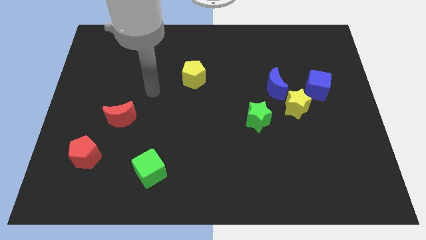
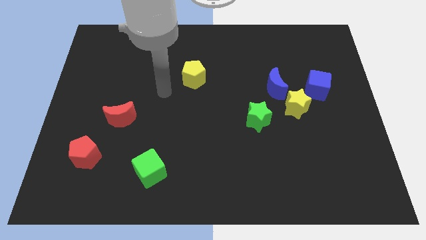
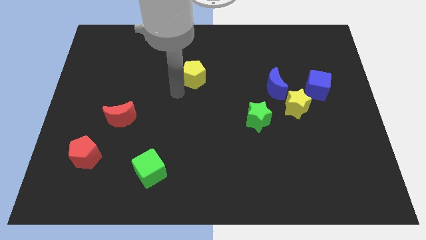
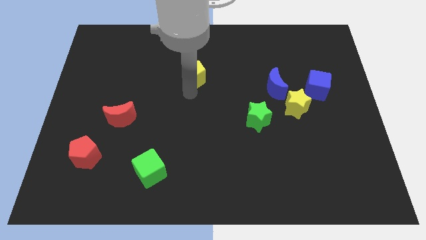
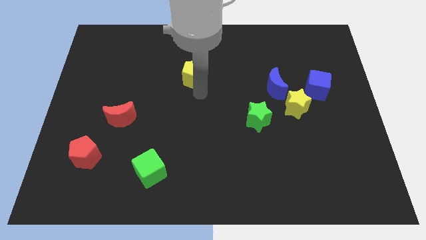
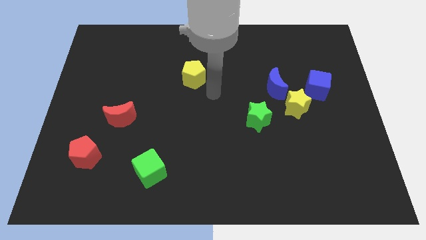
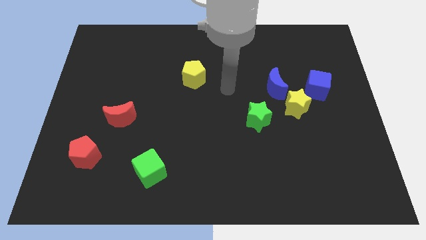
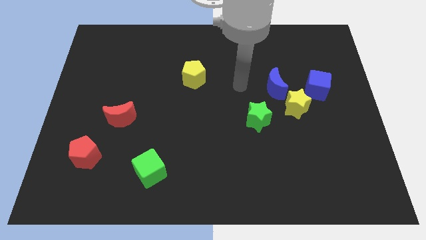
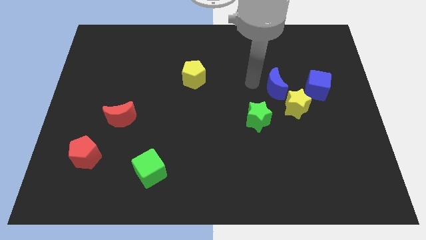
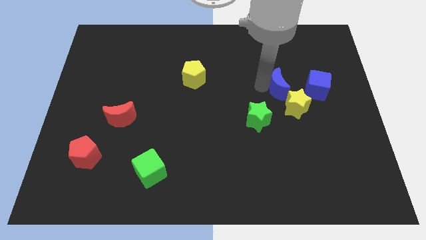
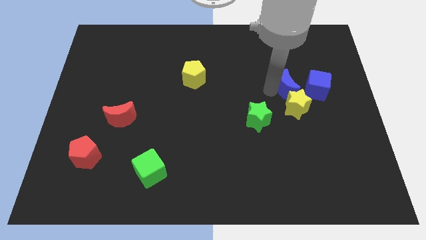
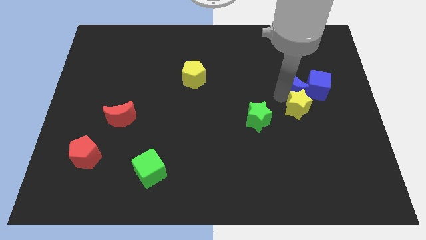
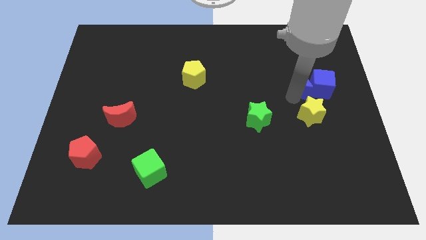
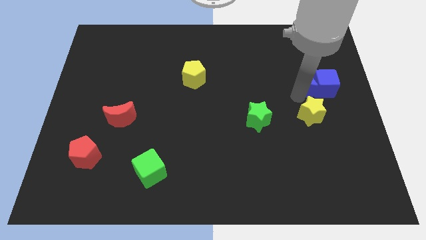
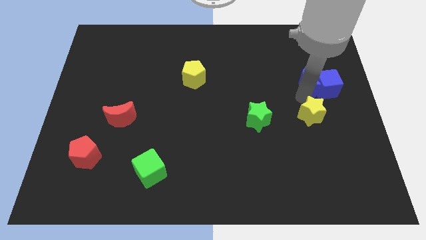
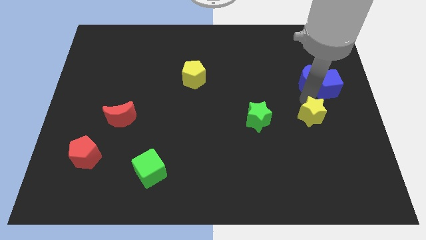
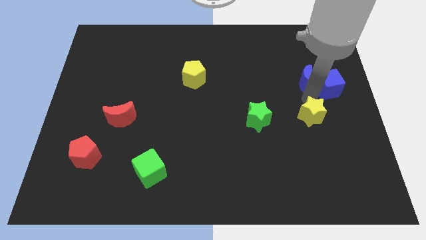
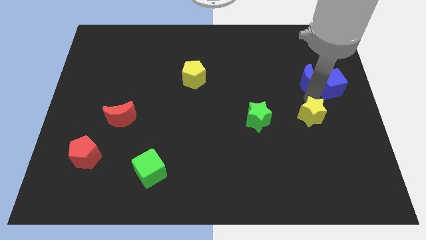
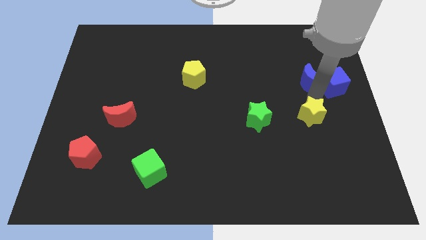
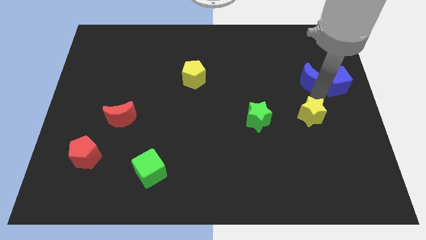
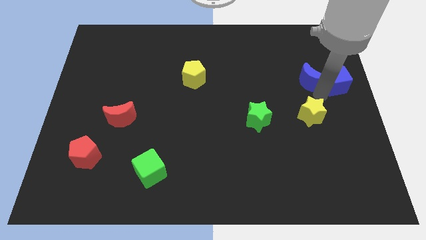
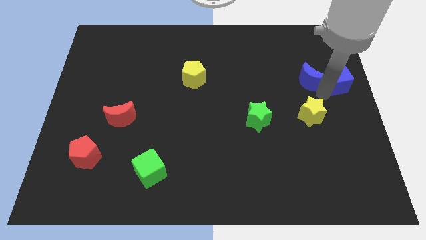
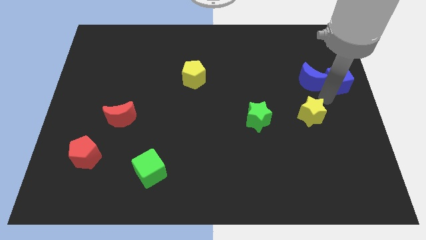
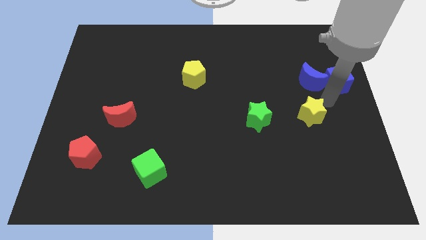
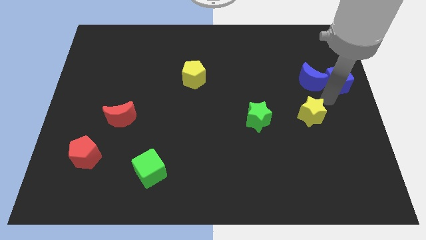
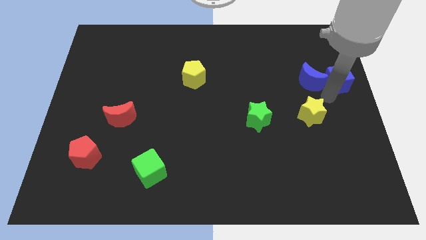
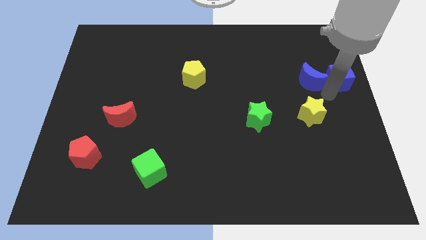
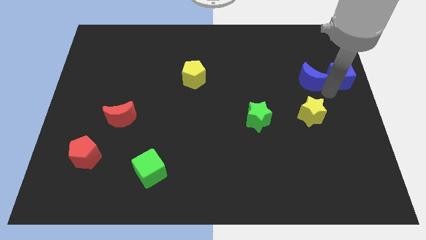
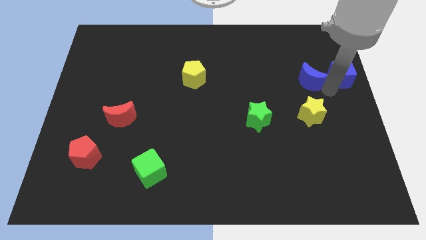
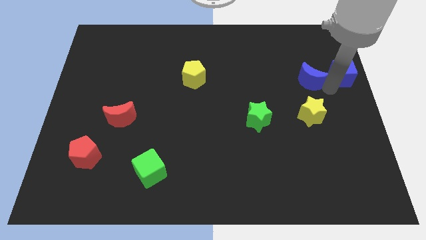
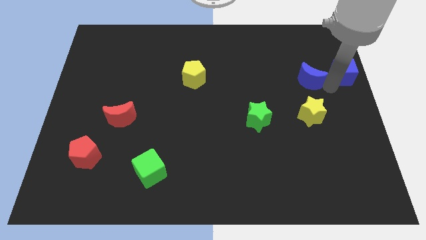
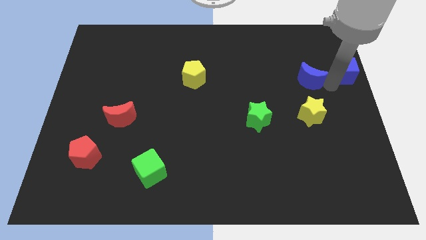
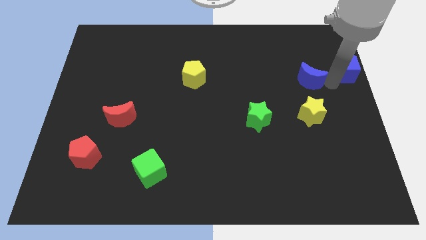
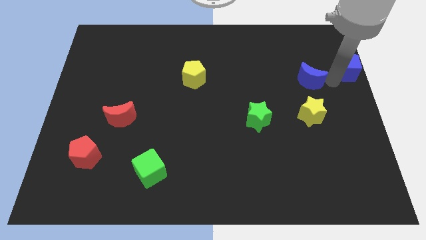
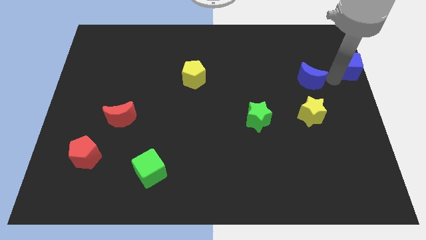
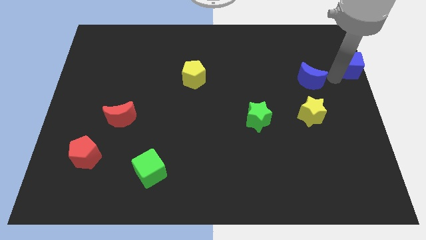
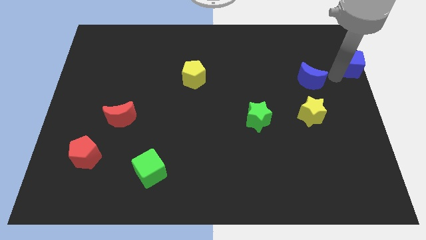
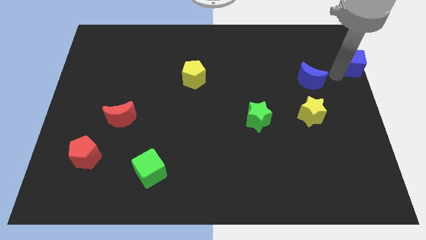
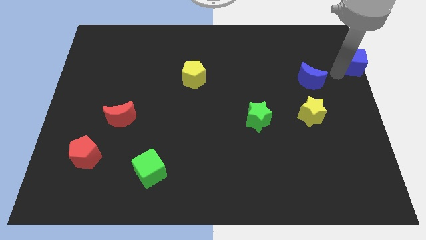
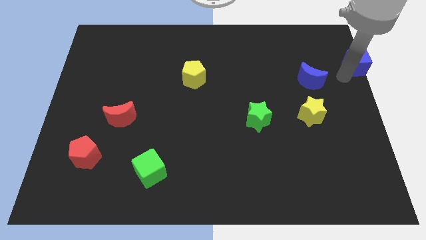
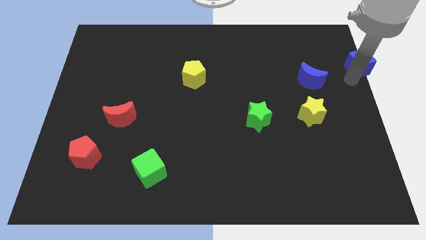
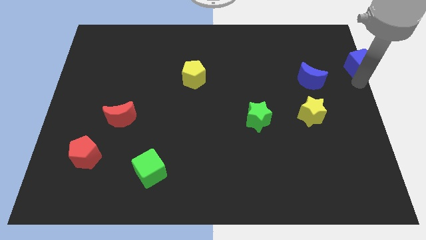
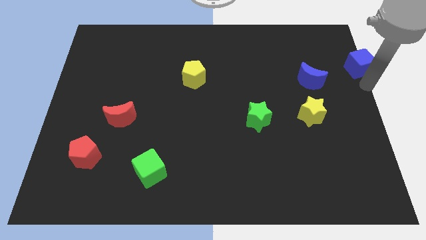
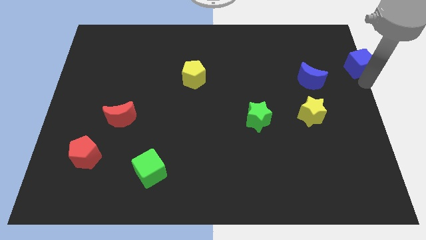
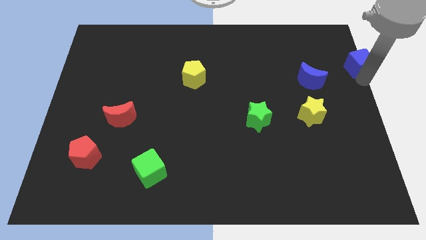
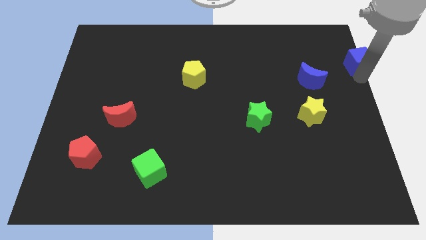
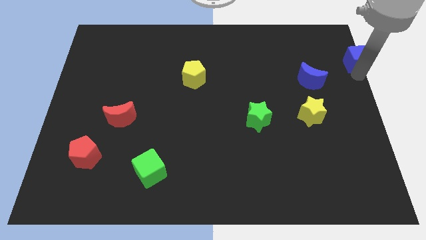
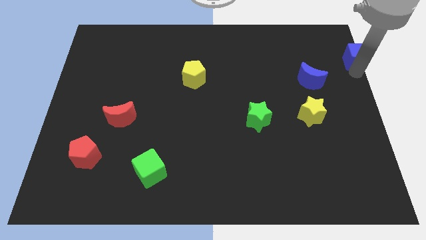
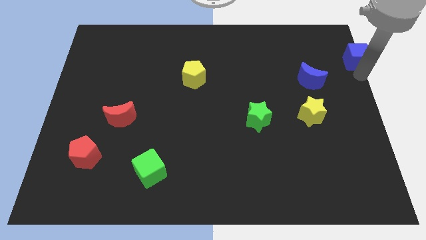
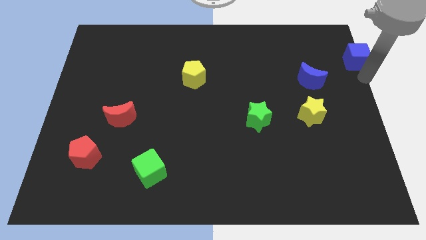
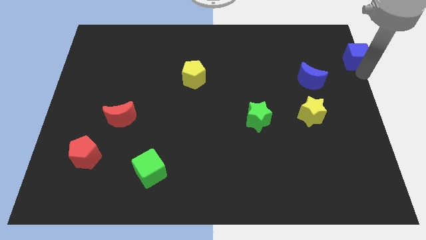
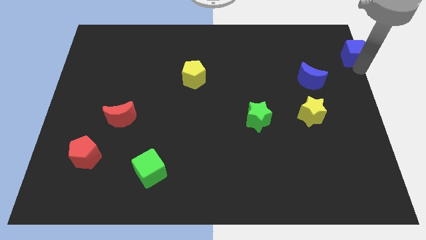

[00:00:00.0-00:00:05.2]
slide the blue cube to the top right of the board

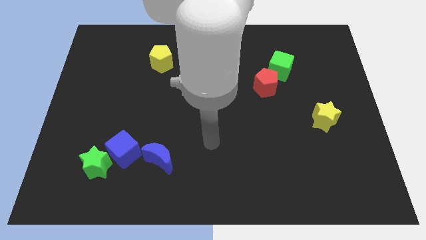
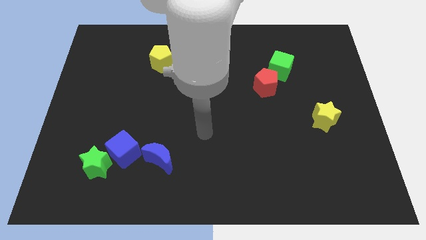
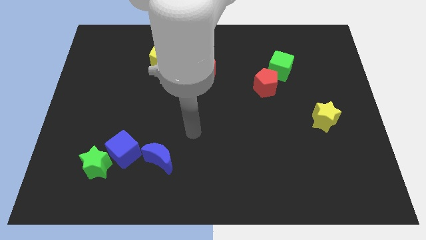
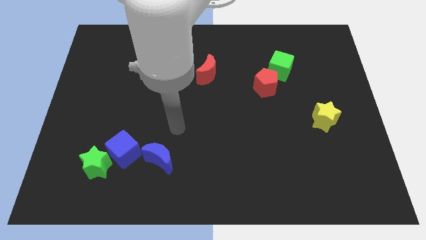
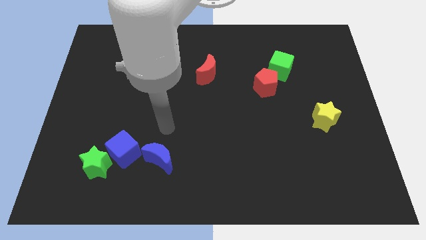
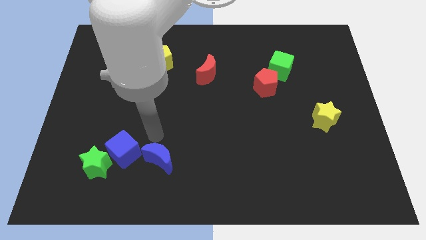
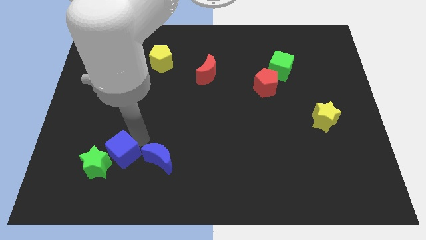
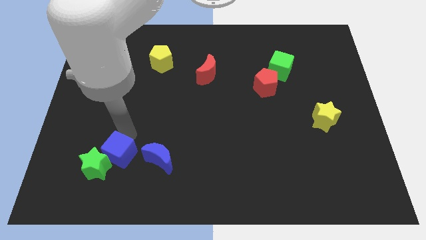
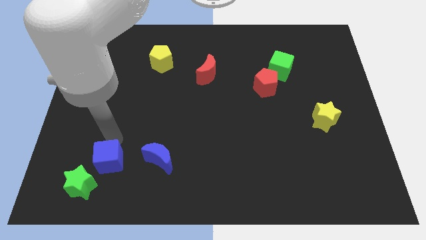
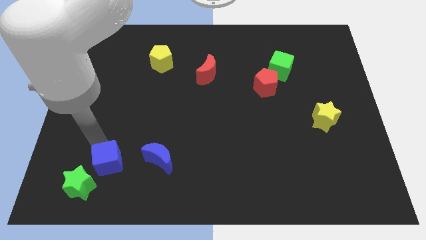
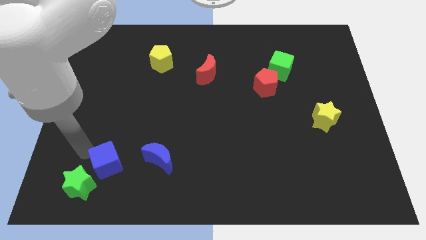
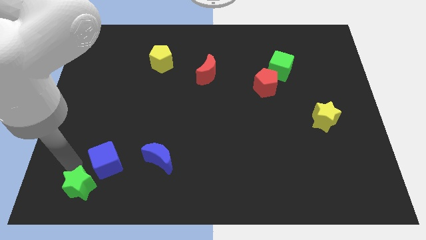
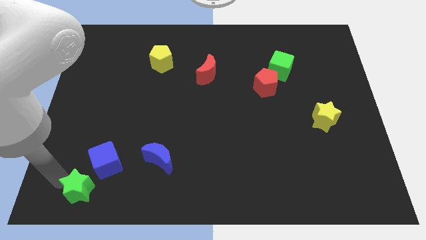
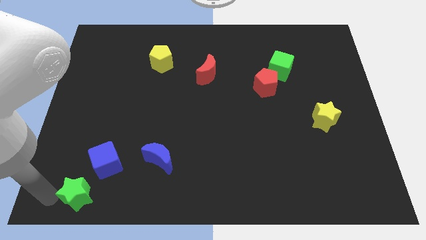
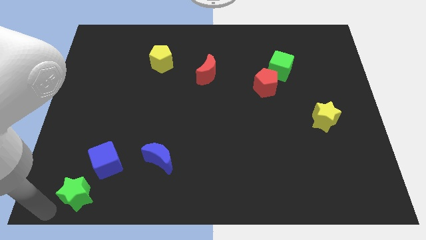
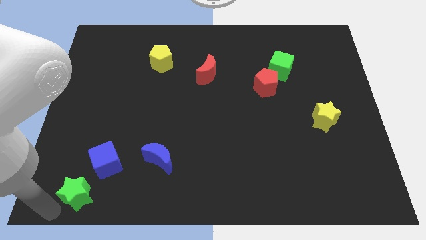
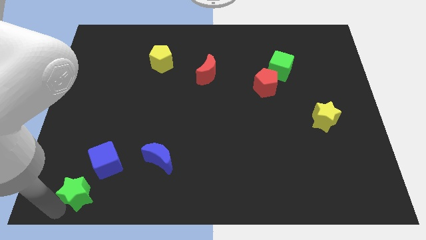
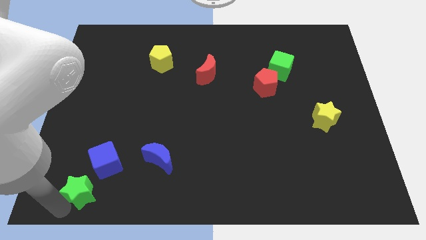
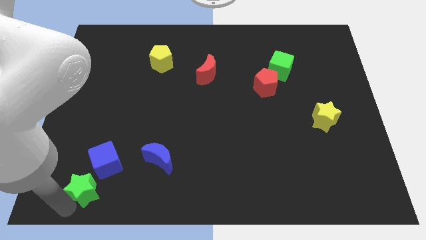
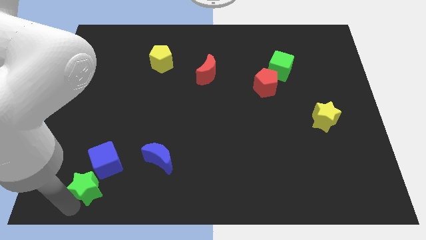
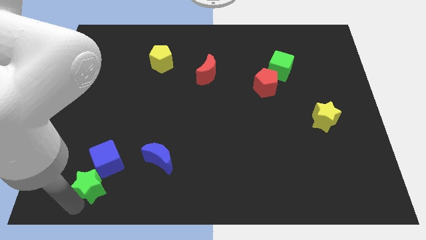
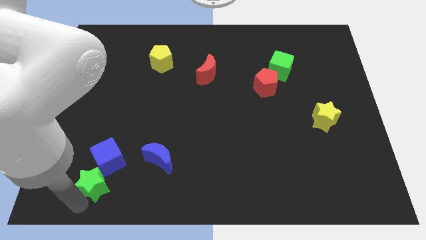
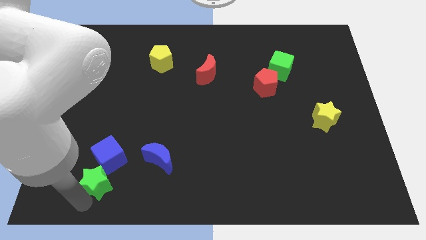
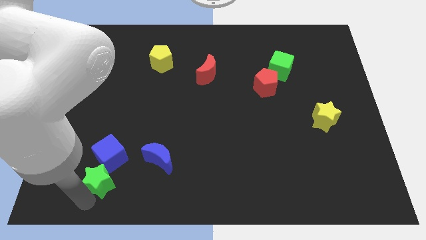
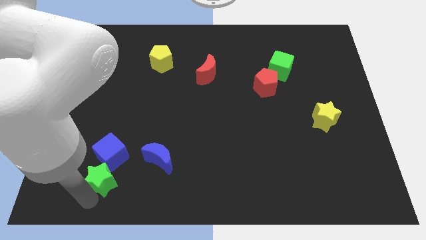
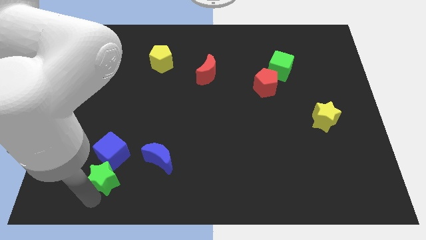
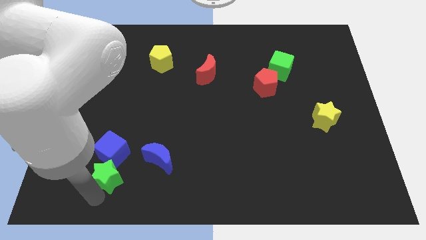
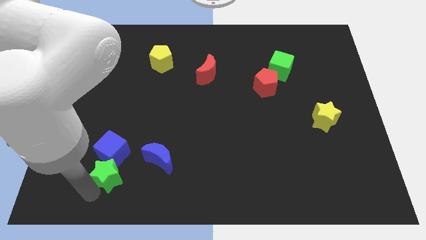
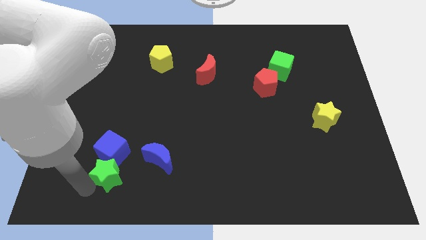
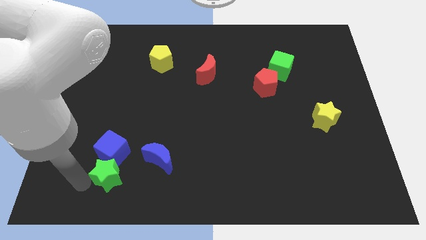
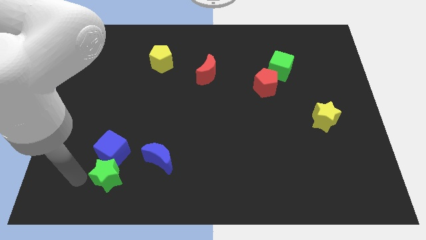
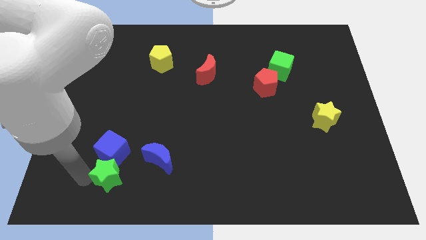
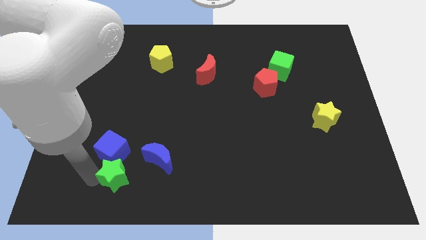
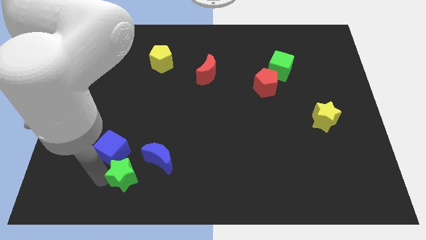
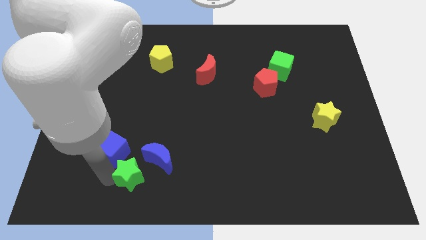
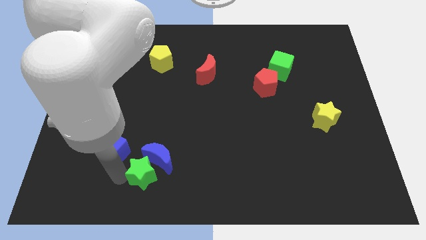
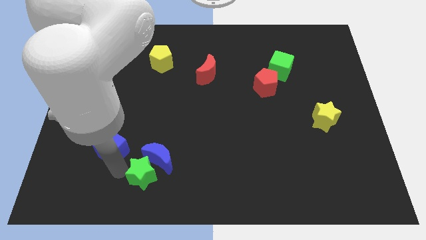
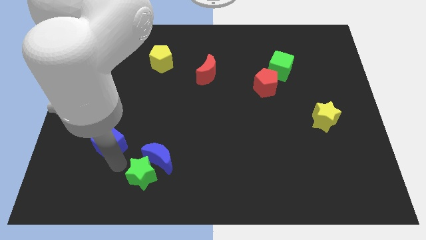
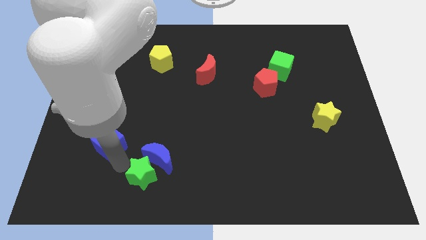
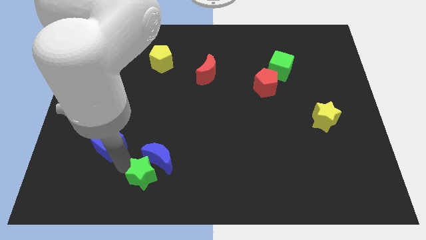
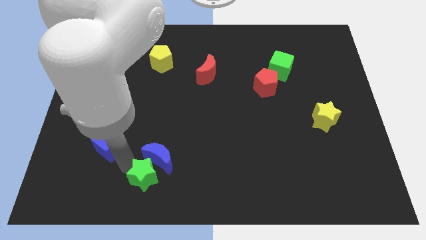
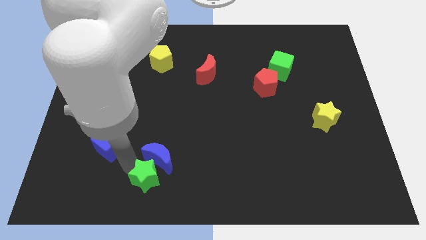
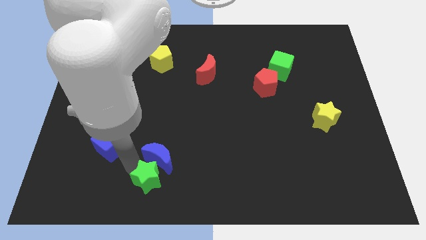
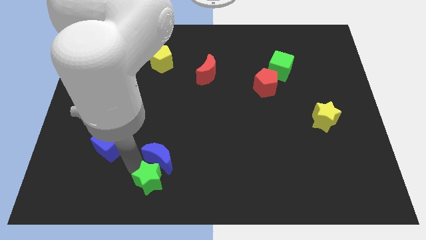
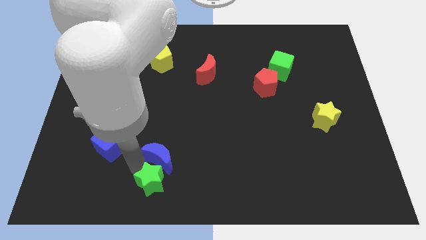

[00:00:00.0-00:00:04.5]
put the green star to the bottom side
